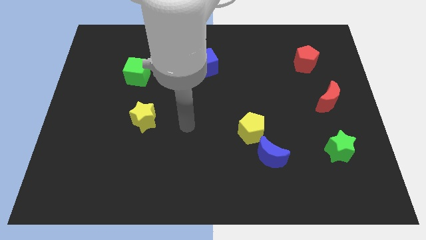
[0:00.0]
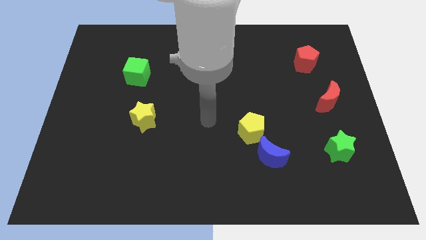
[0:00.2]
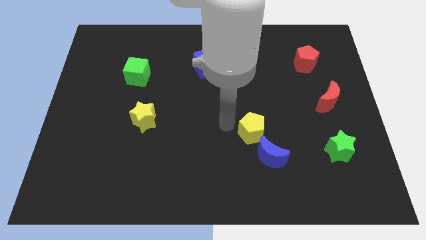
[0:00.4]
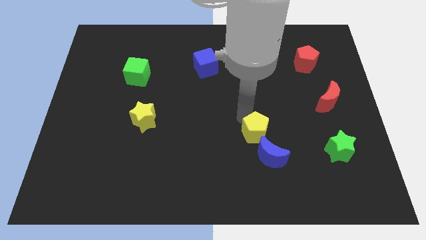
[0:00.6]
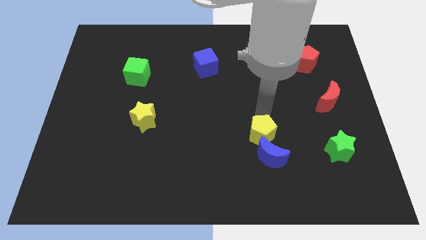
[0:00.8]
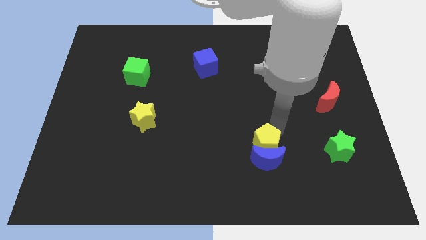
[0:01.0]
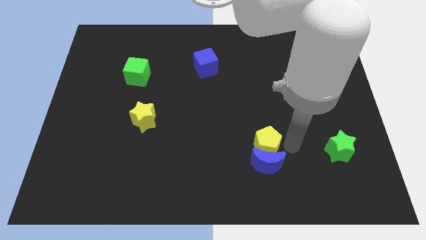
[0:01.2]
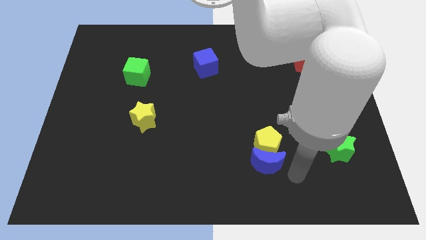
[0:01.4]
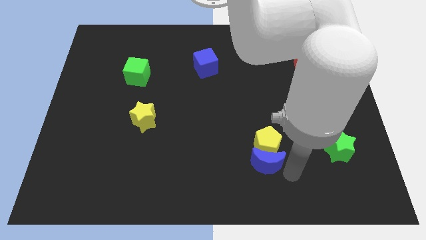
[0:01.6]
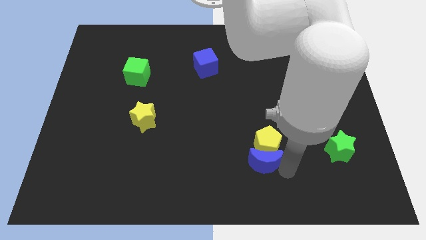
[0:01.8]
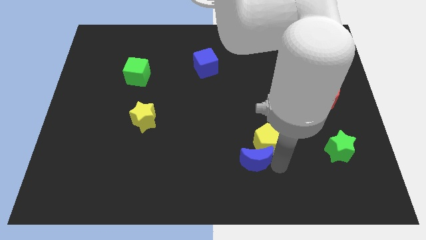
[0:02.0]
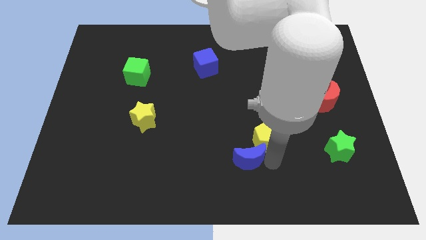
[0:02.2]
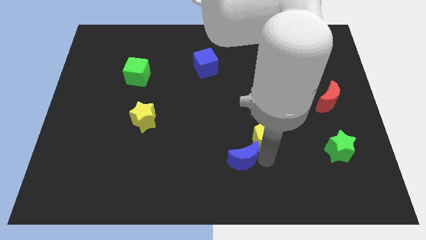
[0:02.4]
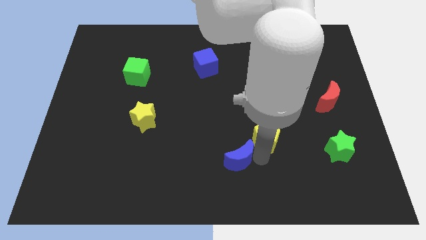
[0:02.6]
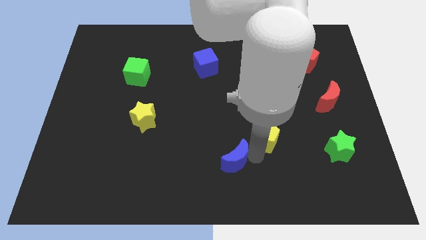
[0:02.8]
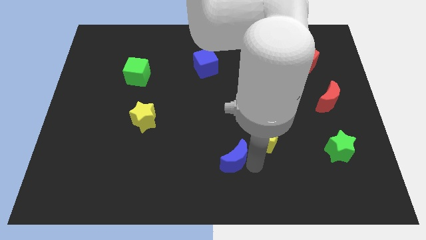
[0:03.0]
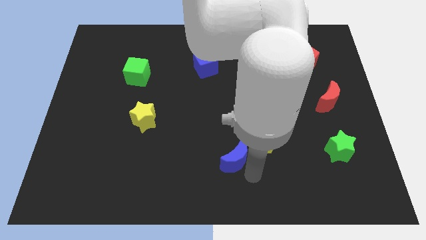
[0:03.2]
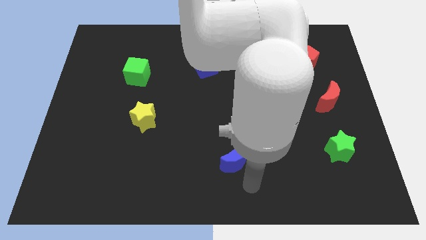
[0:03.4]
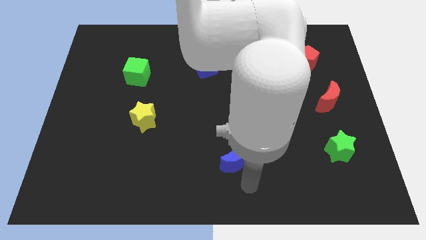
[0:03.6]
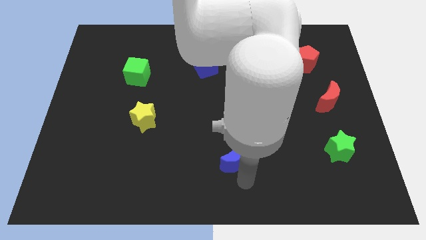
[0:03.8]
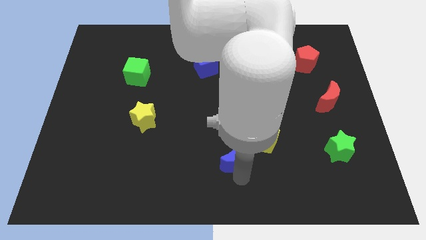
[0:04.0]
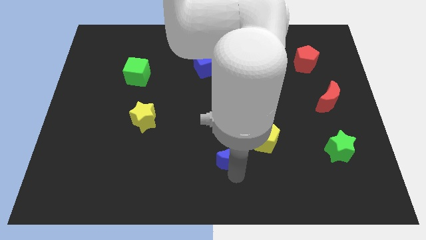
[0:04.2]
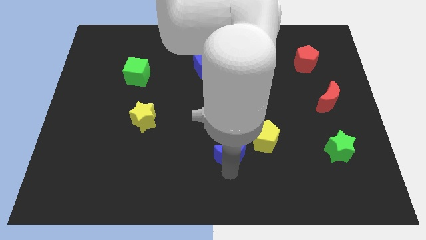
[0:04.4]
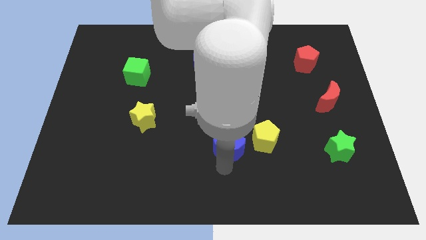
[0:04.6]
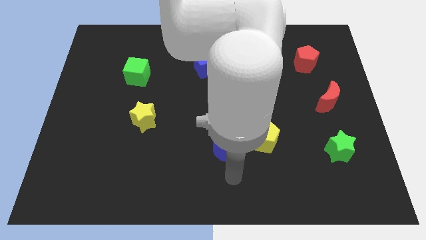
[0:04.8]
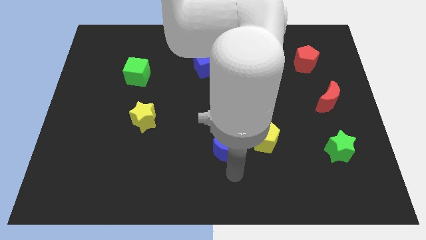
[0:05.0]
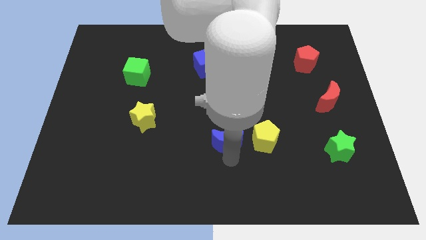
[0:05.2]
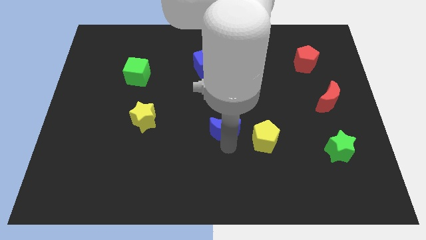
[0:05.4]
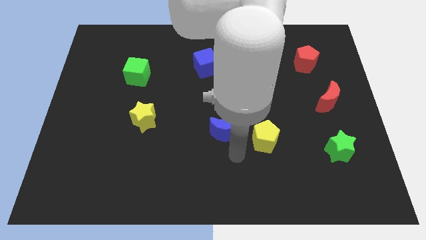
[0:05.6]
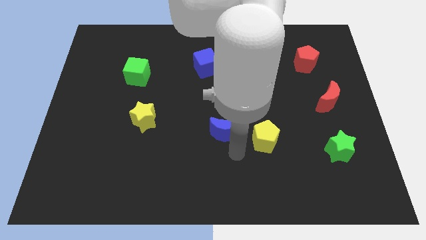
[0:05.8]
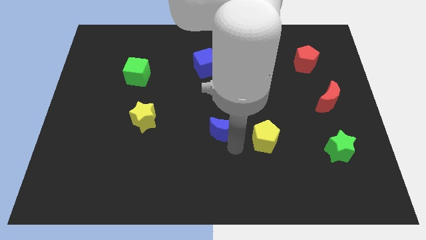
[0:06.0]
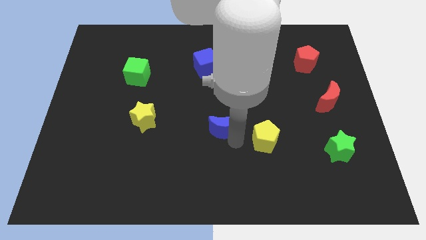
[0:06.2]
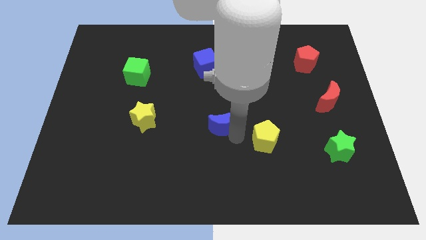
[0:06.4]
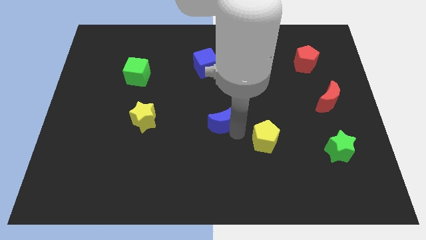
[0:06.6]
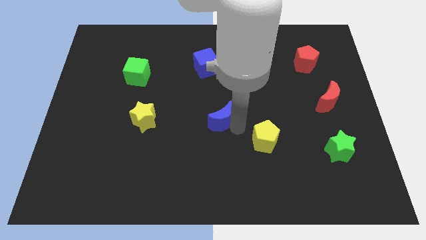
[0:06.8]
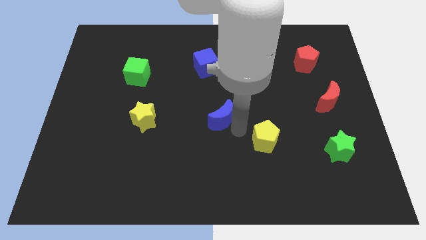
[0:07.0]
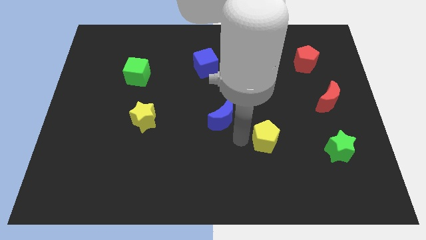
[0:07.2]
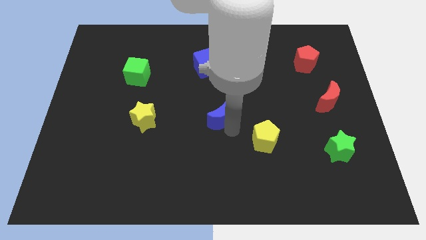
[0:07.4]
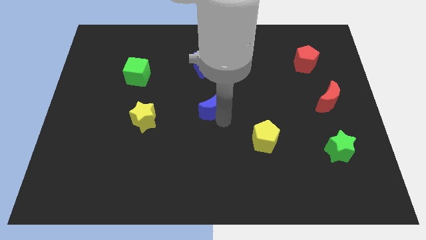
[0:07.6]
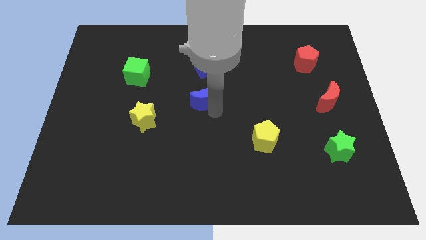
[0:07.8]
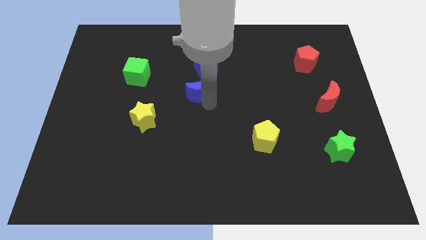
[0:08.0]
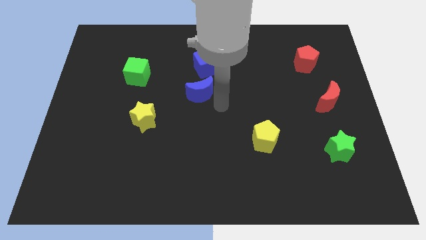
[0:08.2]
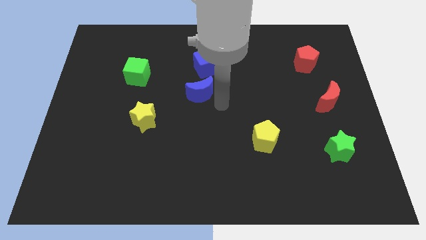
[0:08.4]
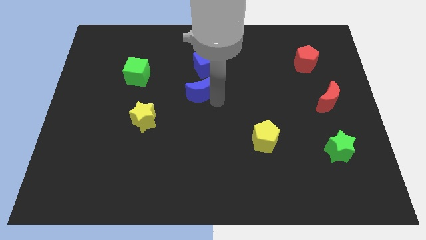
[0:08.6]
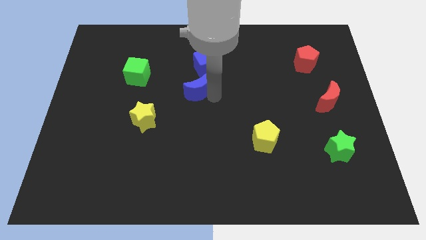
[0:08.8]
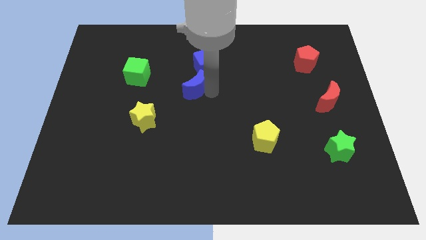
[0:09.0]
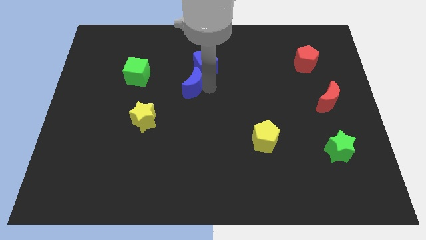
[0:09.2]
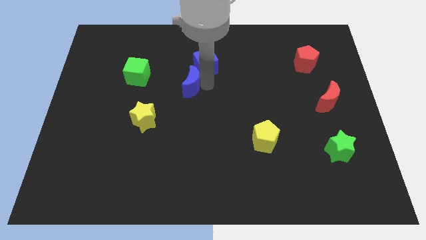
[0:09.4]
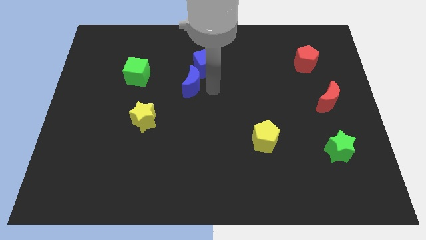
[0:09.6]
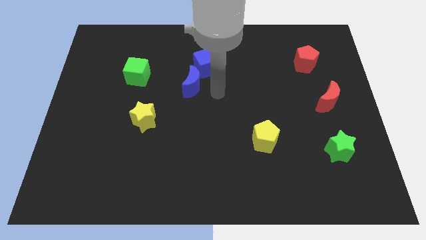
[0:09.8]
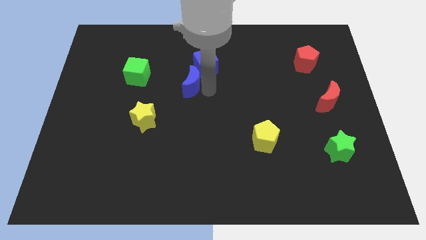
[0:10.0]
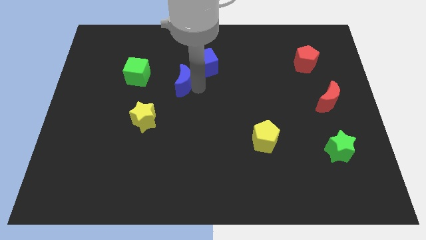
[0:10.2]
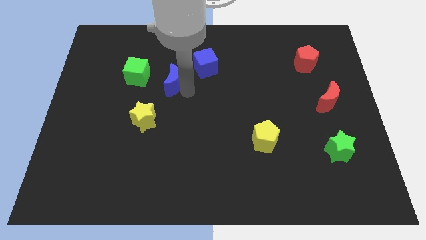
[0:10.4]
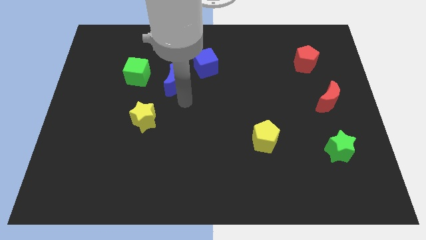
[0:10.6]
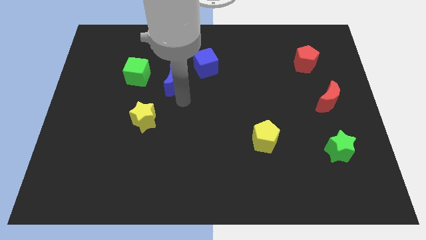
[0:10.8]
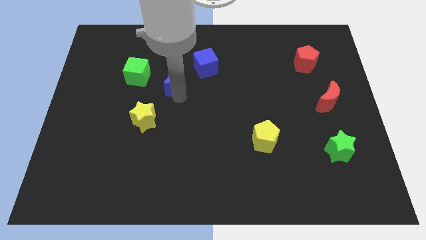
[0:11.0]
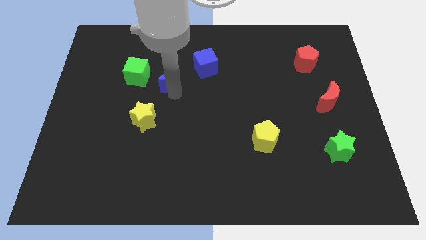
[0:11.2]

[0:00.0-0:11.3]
put the blue moon just left of the blue cube

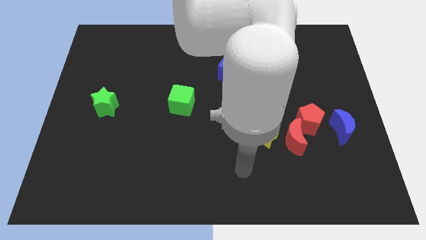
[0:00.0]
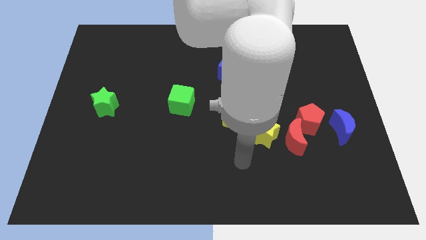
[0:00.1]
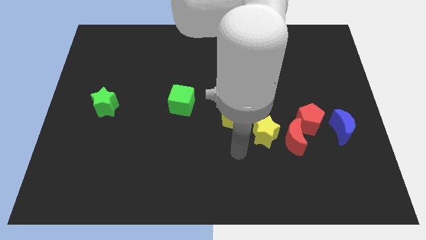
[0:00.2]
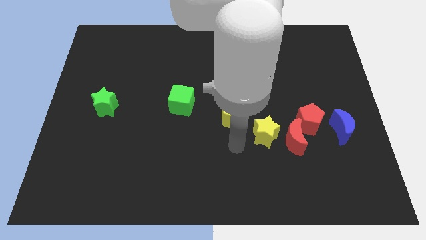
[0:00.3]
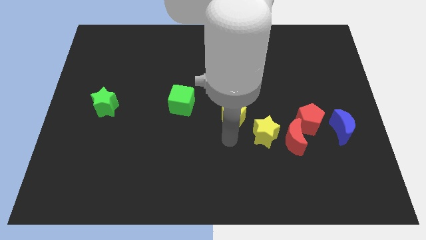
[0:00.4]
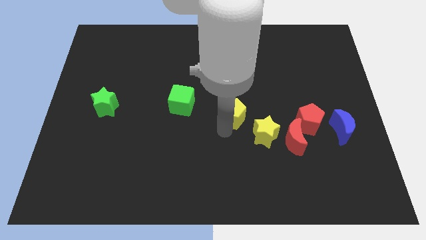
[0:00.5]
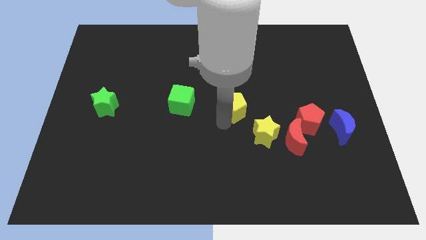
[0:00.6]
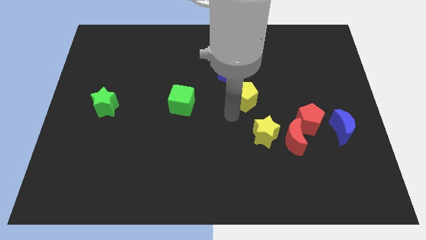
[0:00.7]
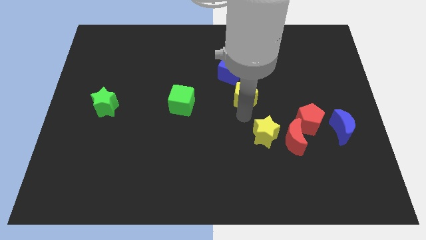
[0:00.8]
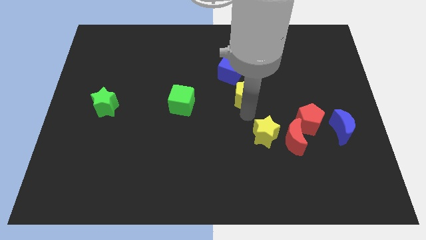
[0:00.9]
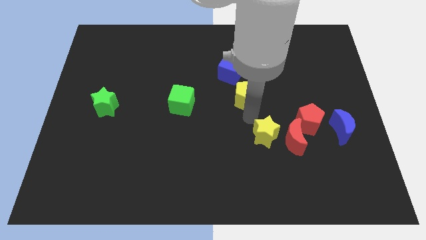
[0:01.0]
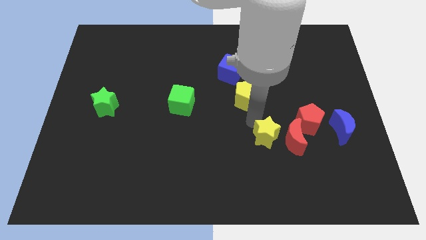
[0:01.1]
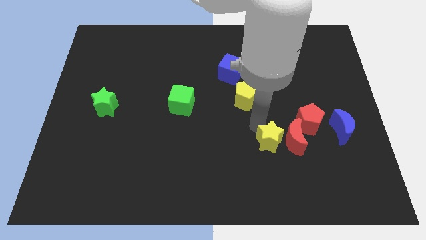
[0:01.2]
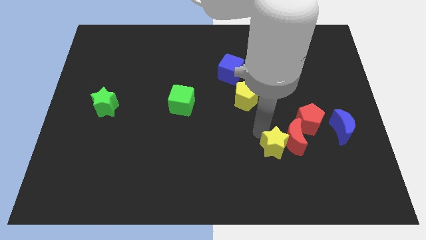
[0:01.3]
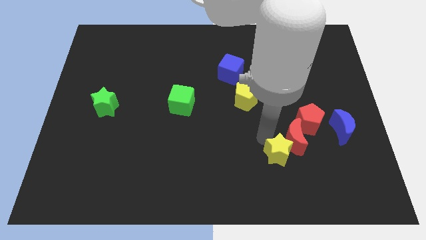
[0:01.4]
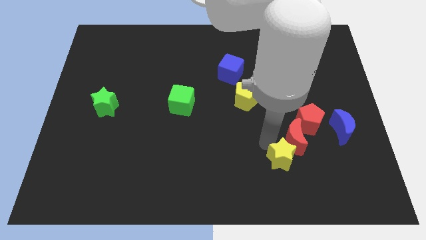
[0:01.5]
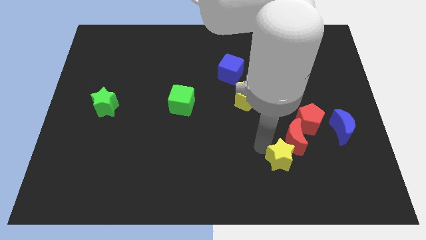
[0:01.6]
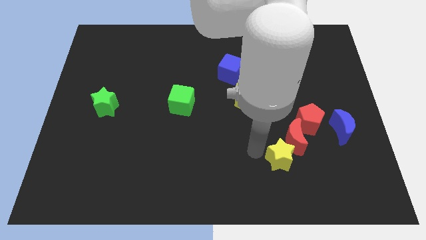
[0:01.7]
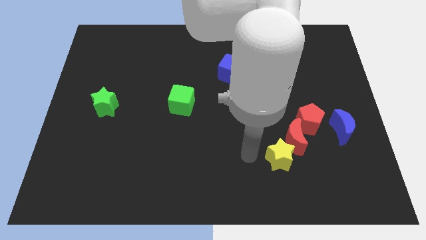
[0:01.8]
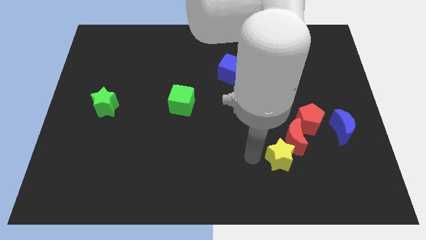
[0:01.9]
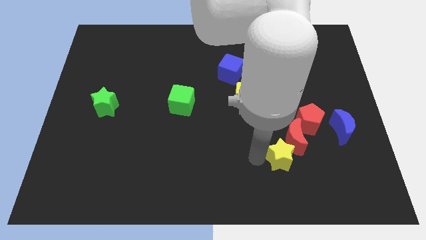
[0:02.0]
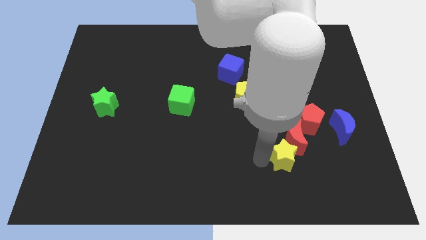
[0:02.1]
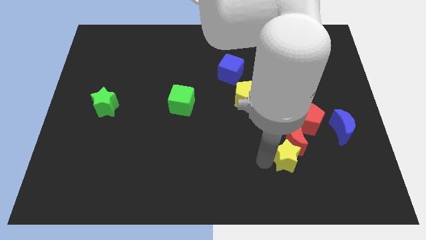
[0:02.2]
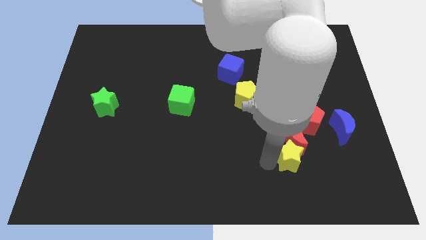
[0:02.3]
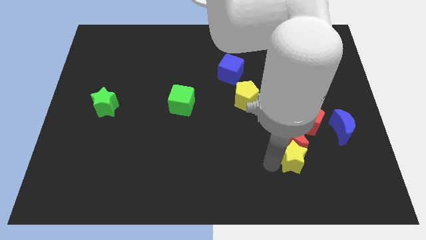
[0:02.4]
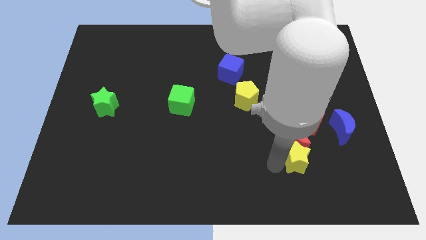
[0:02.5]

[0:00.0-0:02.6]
move the yellow star to the bottom of the red pentagon
